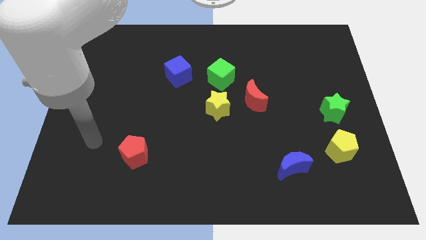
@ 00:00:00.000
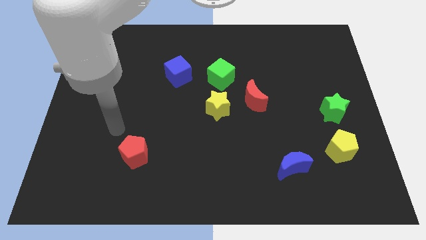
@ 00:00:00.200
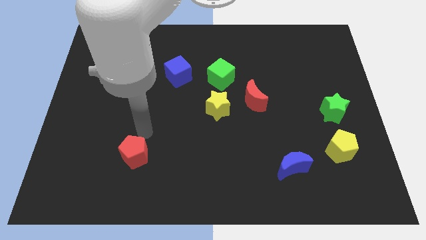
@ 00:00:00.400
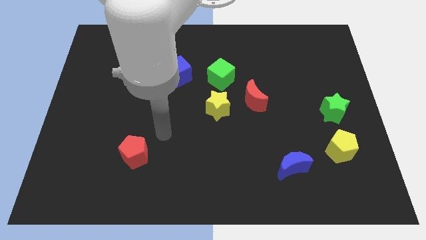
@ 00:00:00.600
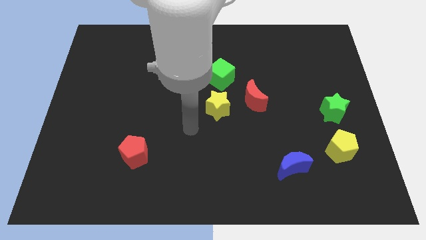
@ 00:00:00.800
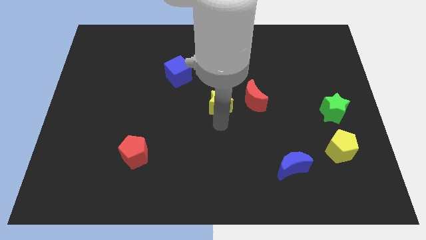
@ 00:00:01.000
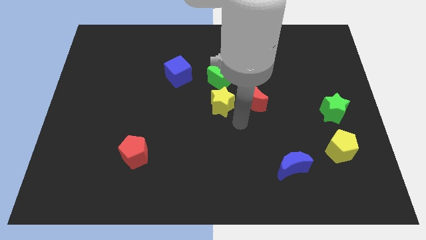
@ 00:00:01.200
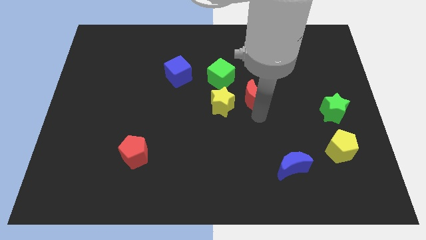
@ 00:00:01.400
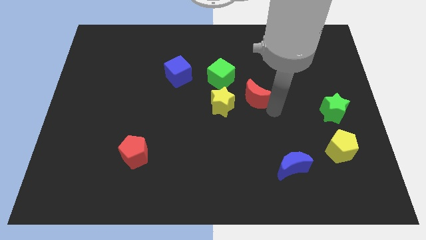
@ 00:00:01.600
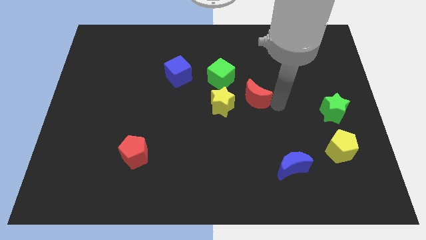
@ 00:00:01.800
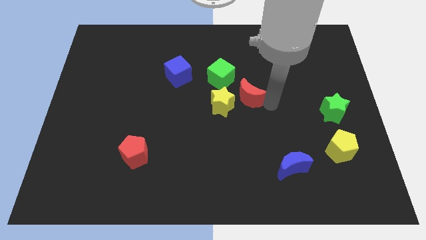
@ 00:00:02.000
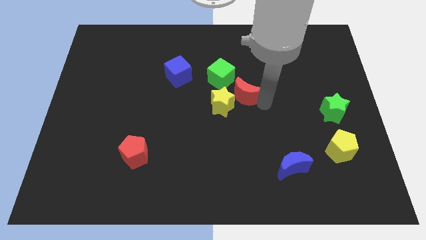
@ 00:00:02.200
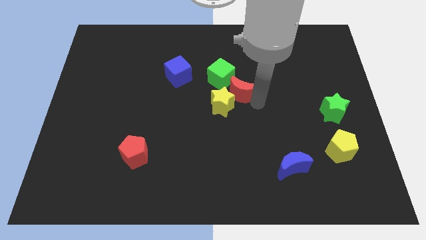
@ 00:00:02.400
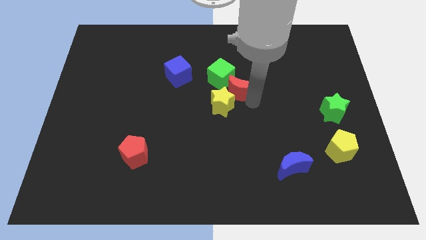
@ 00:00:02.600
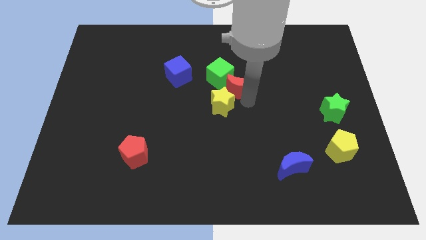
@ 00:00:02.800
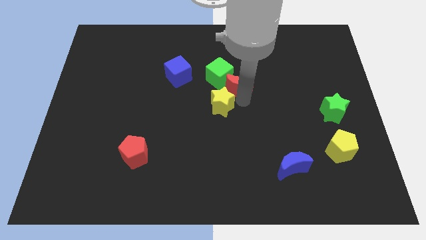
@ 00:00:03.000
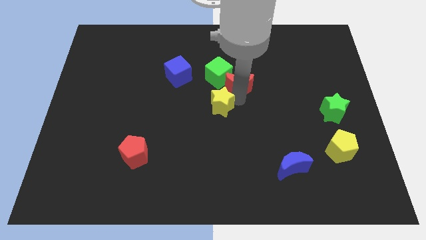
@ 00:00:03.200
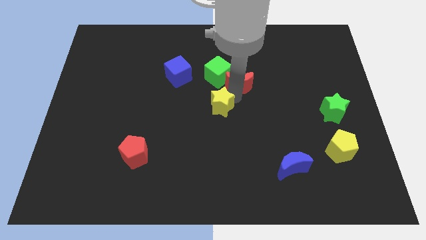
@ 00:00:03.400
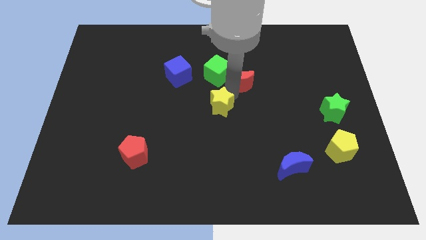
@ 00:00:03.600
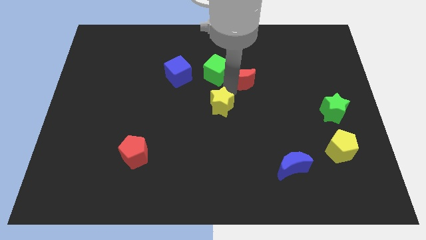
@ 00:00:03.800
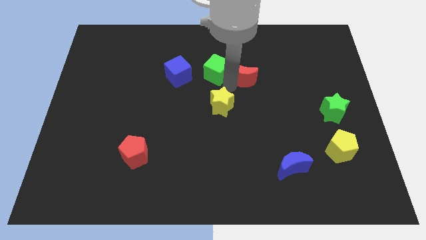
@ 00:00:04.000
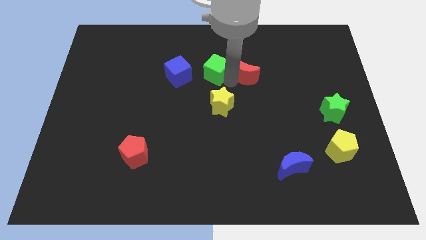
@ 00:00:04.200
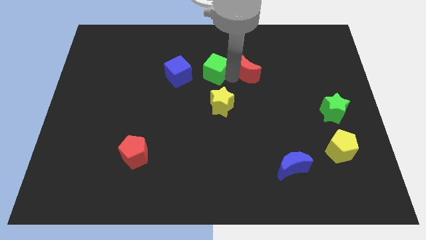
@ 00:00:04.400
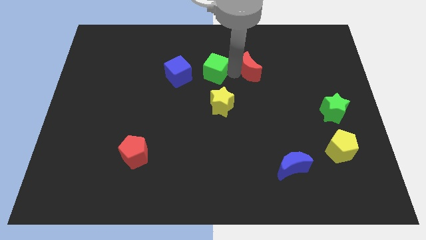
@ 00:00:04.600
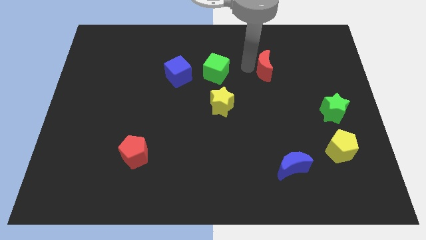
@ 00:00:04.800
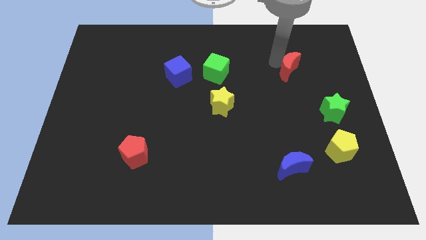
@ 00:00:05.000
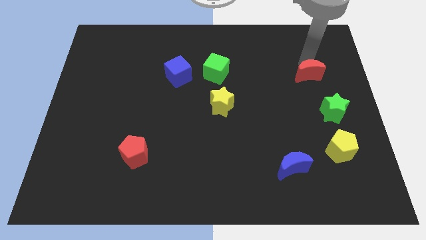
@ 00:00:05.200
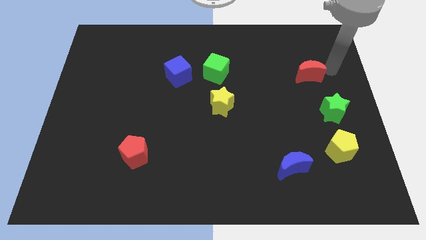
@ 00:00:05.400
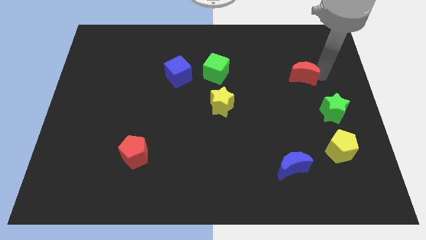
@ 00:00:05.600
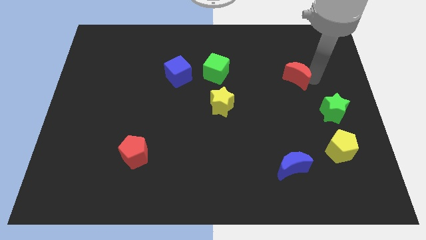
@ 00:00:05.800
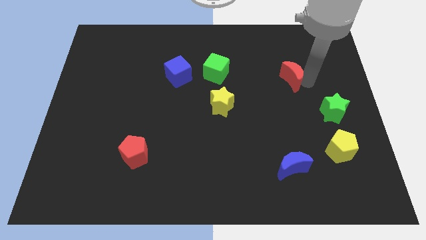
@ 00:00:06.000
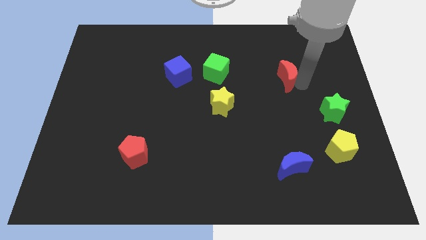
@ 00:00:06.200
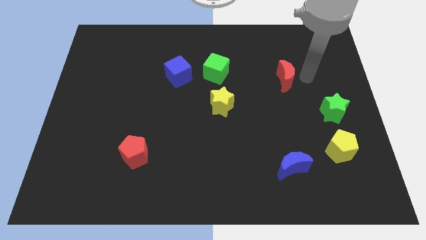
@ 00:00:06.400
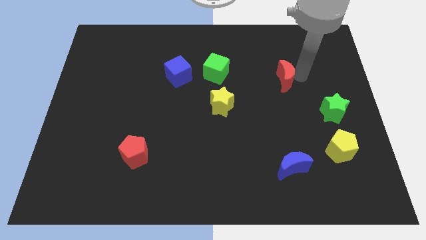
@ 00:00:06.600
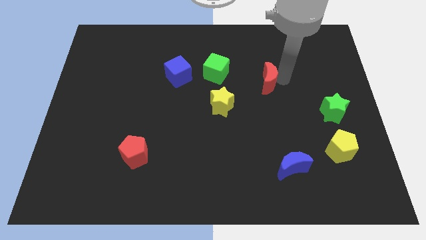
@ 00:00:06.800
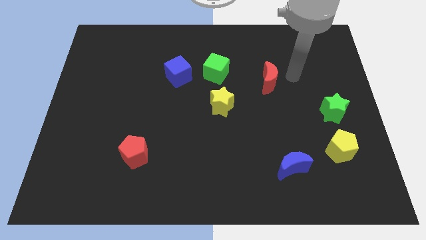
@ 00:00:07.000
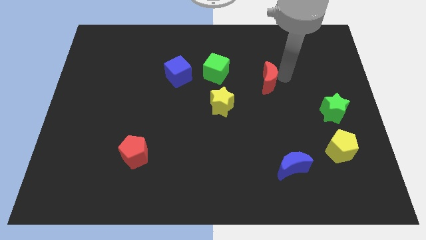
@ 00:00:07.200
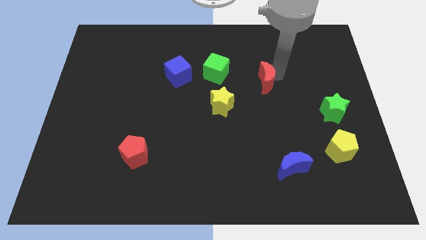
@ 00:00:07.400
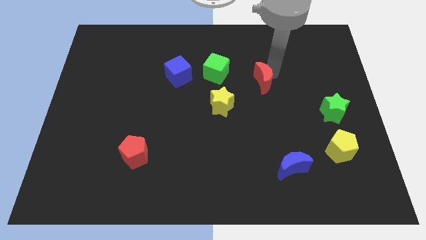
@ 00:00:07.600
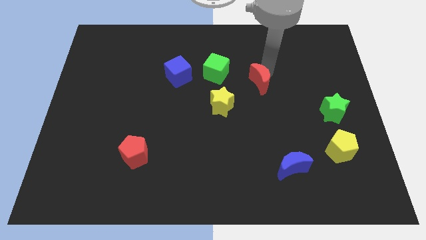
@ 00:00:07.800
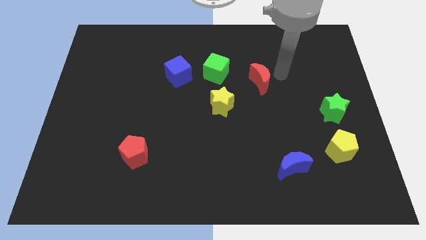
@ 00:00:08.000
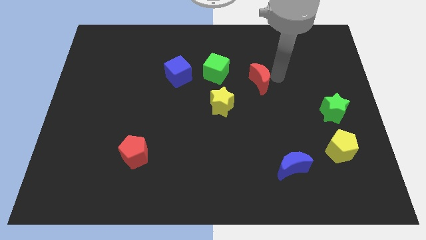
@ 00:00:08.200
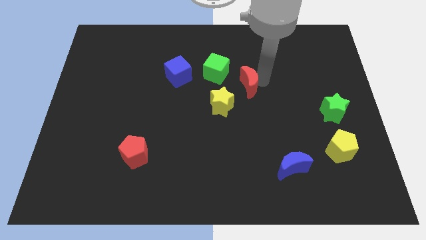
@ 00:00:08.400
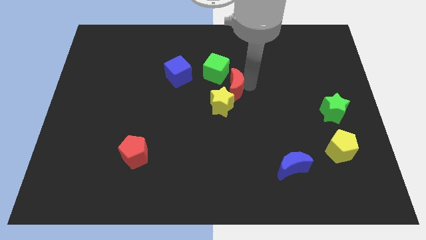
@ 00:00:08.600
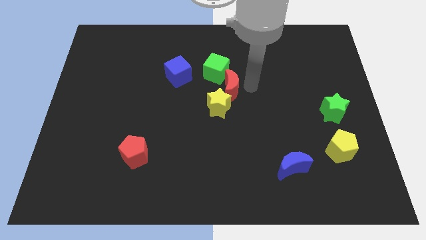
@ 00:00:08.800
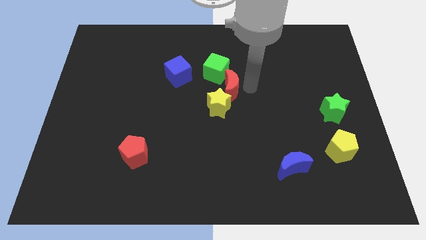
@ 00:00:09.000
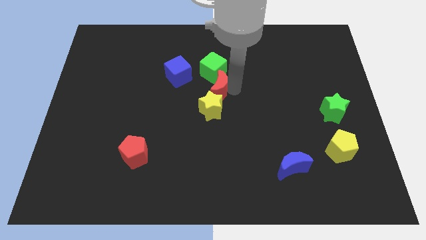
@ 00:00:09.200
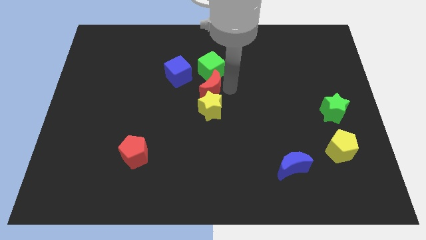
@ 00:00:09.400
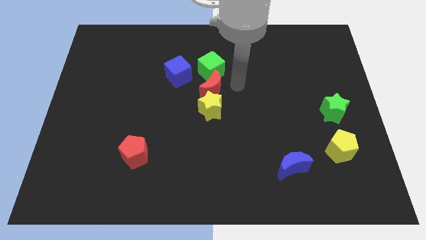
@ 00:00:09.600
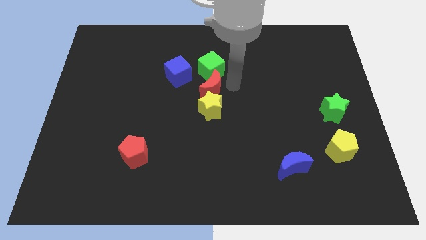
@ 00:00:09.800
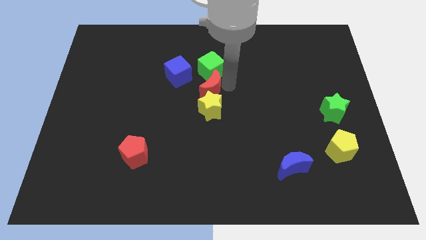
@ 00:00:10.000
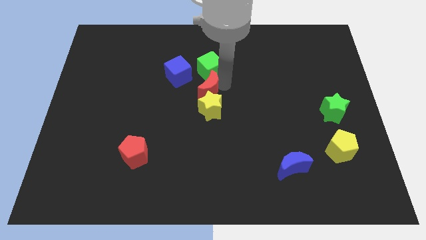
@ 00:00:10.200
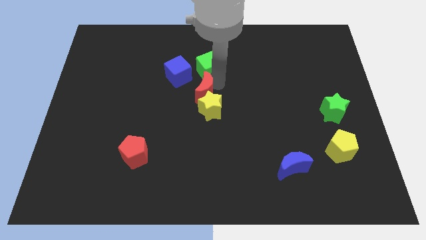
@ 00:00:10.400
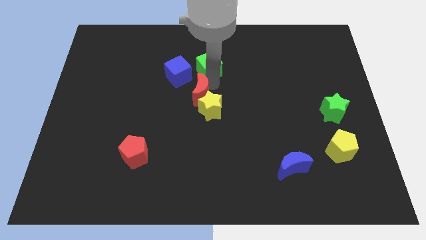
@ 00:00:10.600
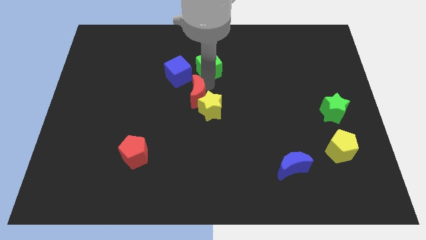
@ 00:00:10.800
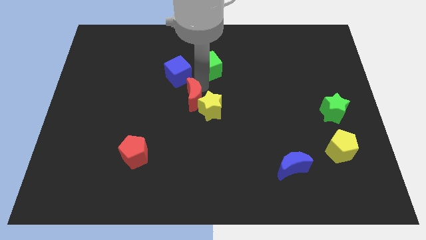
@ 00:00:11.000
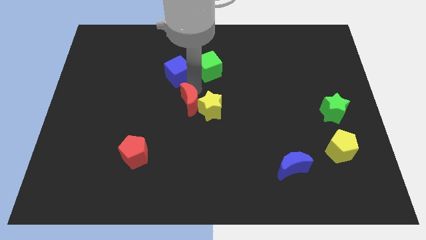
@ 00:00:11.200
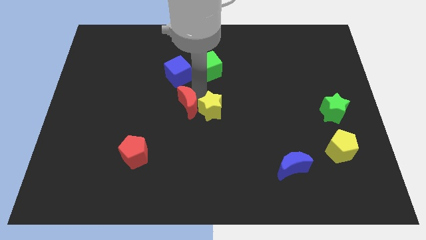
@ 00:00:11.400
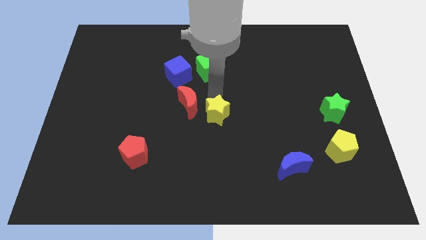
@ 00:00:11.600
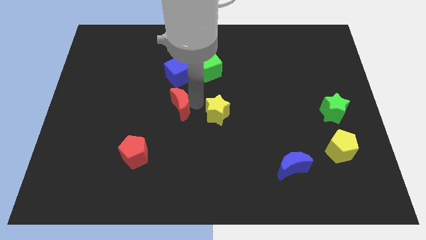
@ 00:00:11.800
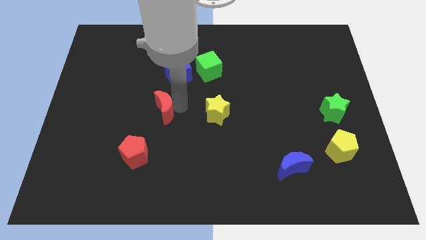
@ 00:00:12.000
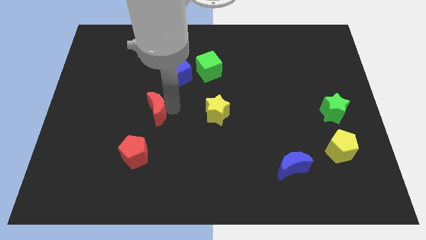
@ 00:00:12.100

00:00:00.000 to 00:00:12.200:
slide the red moon above the red pentagon

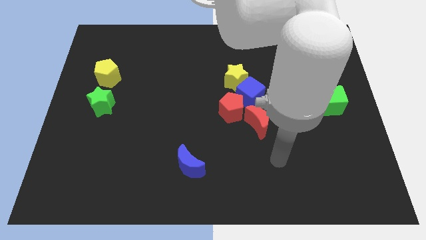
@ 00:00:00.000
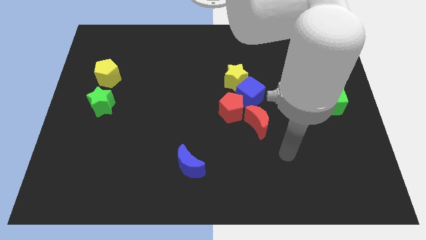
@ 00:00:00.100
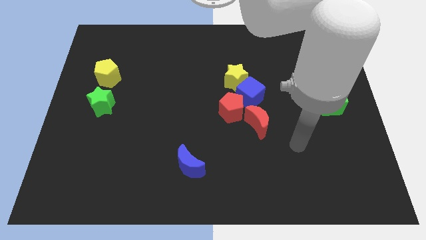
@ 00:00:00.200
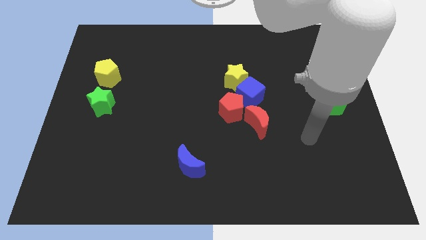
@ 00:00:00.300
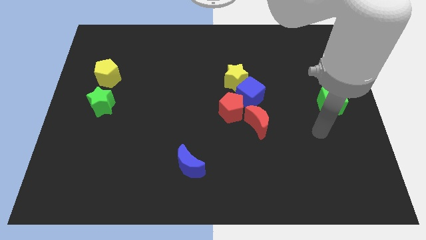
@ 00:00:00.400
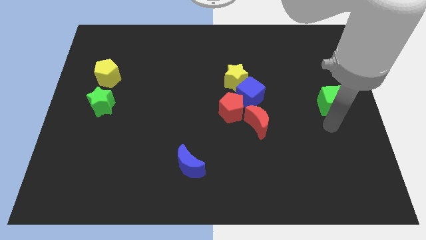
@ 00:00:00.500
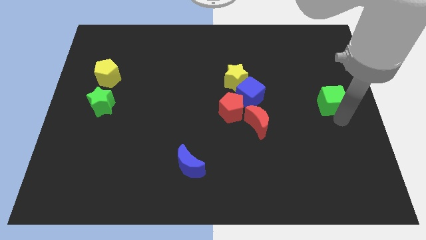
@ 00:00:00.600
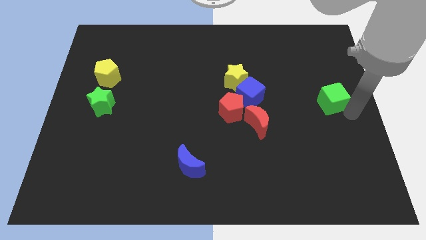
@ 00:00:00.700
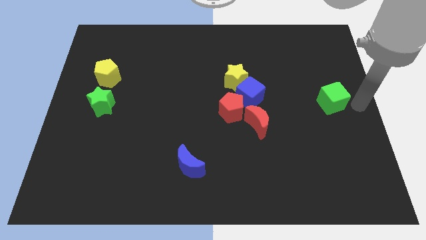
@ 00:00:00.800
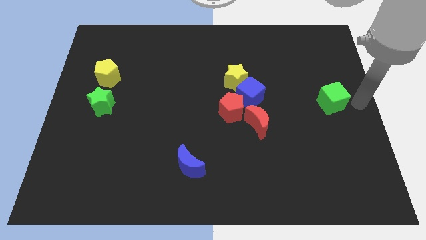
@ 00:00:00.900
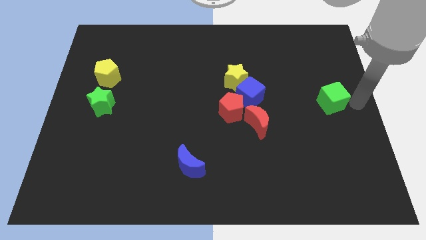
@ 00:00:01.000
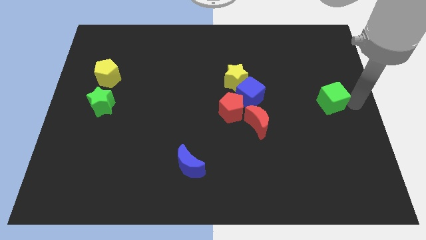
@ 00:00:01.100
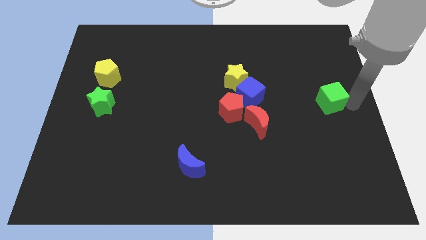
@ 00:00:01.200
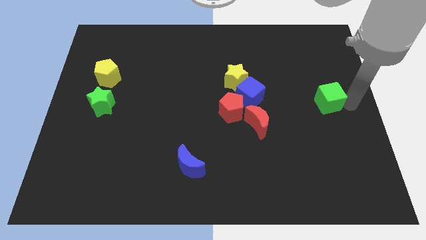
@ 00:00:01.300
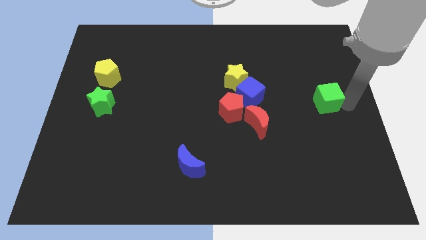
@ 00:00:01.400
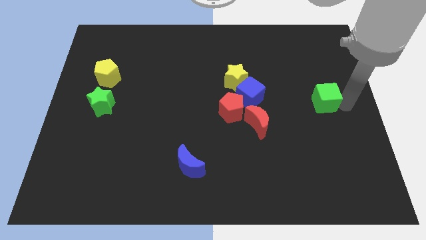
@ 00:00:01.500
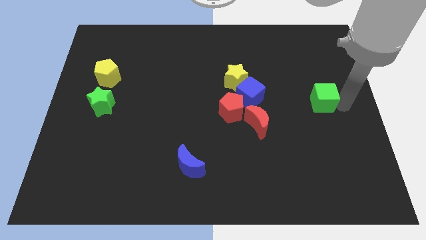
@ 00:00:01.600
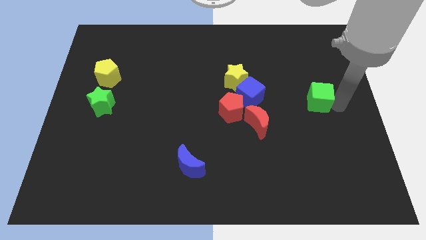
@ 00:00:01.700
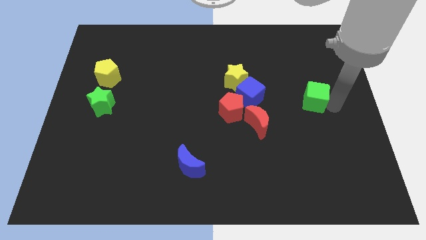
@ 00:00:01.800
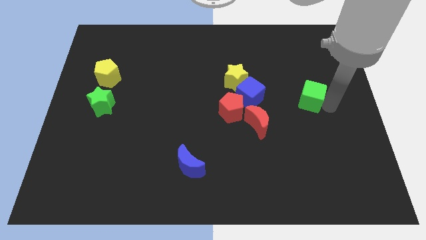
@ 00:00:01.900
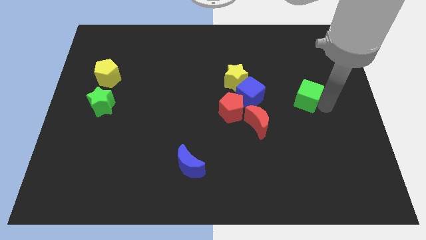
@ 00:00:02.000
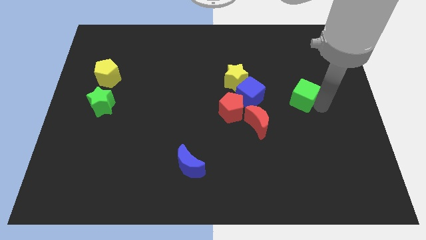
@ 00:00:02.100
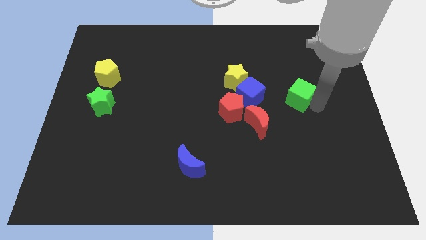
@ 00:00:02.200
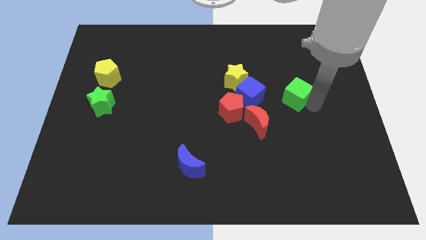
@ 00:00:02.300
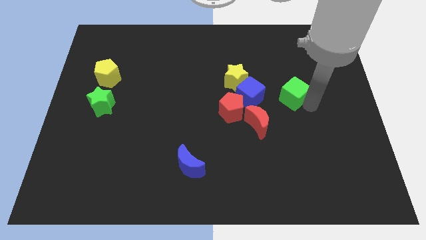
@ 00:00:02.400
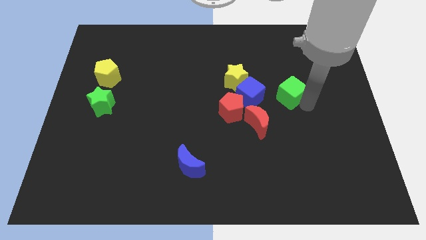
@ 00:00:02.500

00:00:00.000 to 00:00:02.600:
move the green cube to the right side of the yellow star
